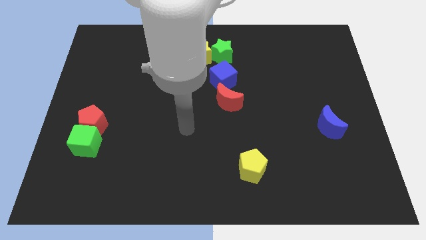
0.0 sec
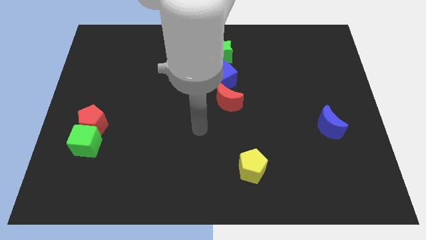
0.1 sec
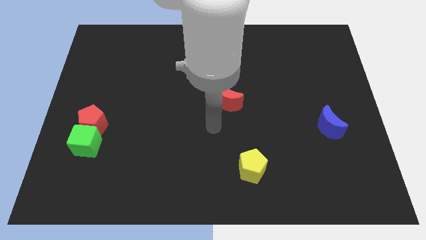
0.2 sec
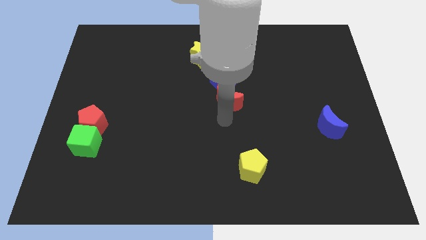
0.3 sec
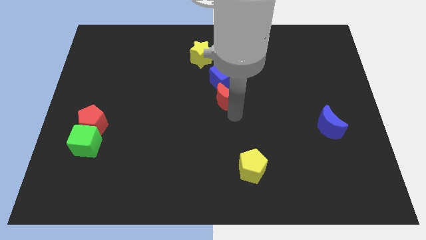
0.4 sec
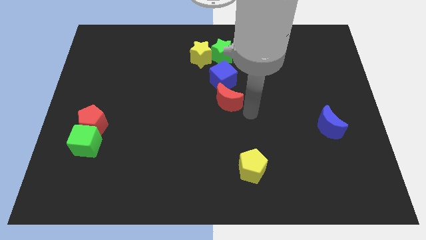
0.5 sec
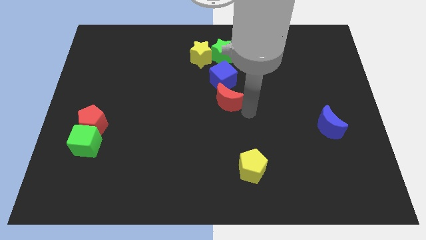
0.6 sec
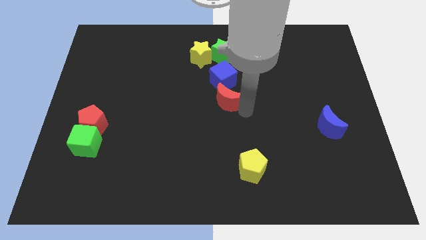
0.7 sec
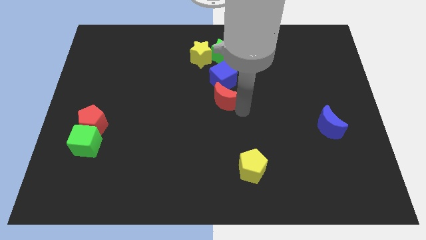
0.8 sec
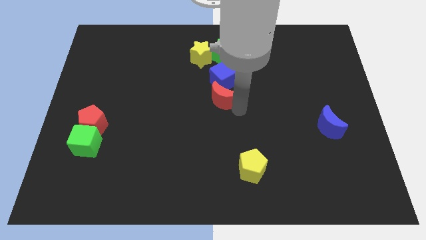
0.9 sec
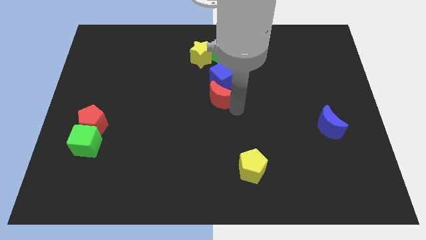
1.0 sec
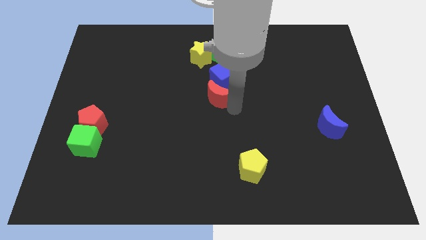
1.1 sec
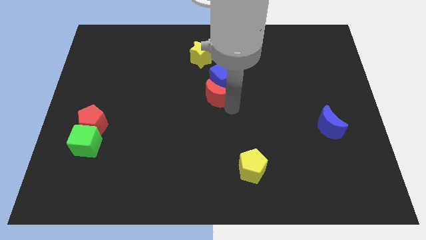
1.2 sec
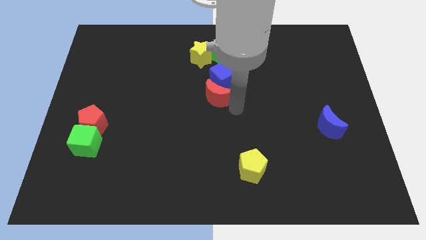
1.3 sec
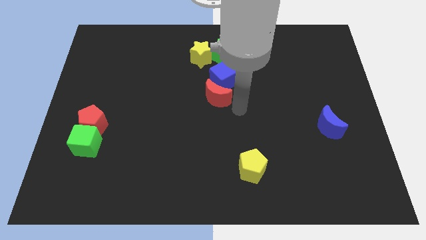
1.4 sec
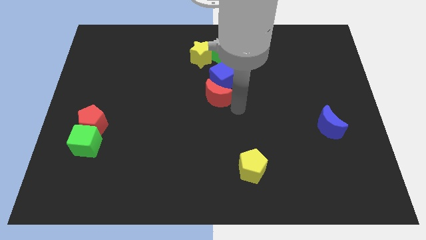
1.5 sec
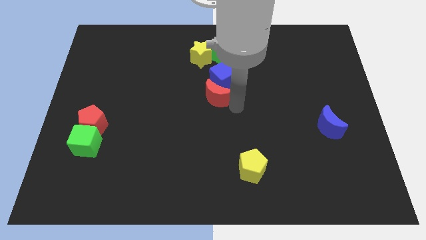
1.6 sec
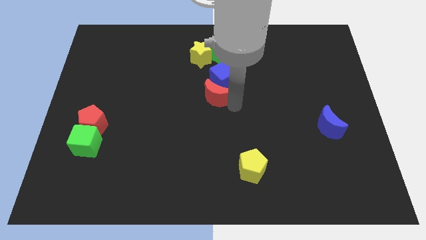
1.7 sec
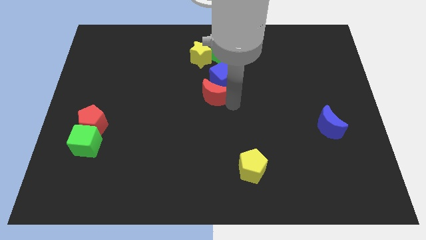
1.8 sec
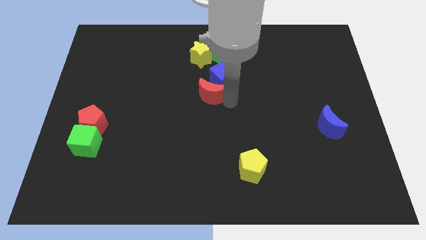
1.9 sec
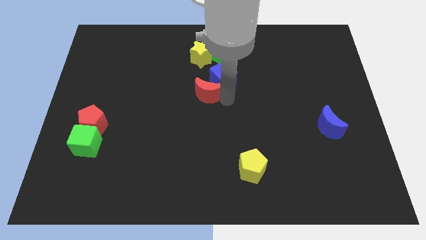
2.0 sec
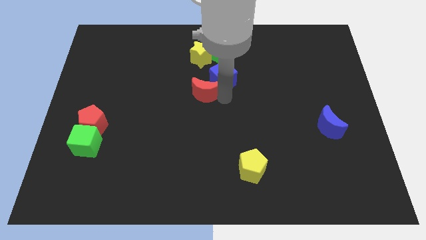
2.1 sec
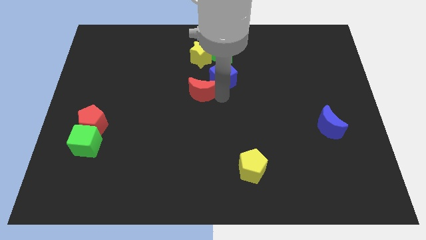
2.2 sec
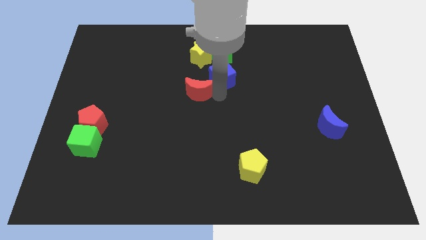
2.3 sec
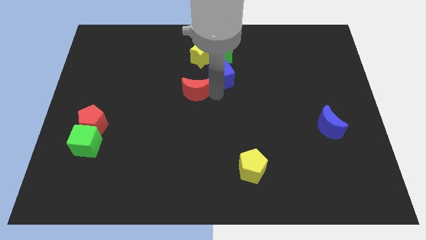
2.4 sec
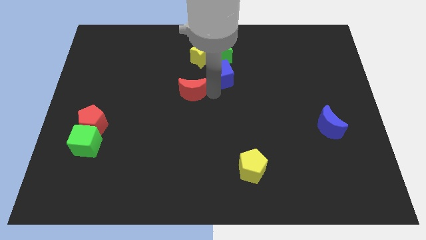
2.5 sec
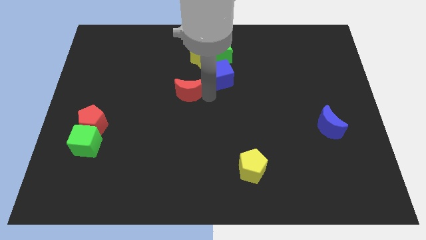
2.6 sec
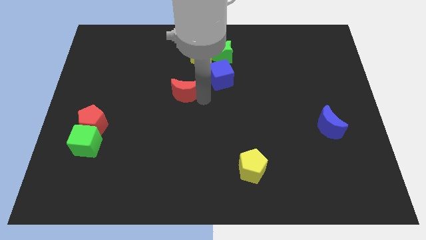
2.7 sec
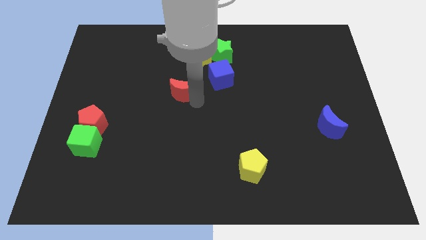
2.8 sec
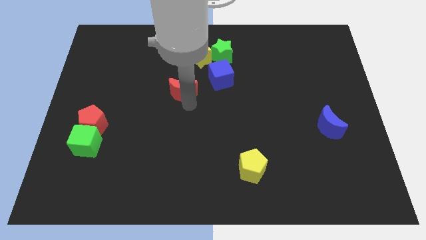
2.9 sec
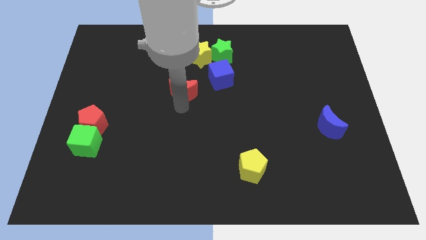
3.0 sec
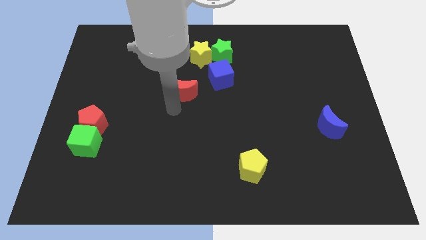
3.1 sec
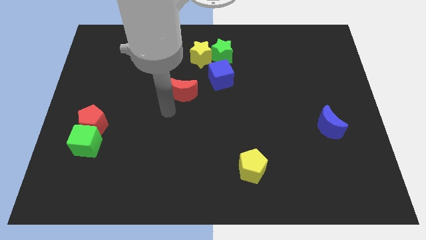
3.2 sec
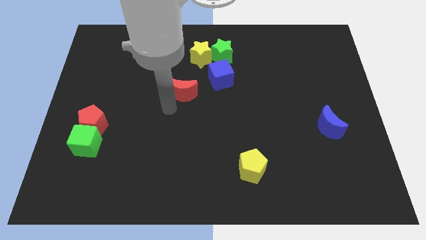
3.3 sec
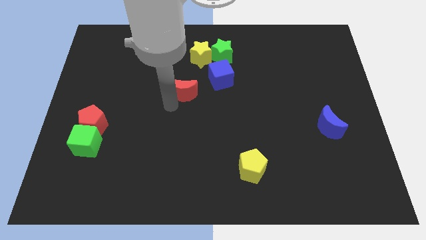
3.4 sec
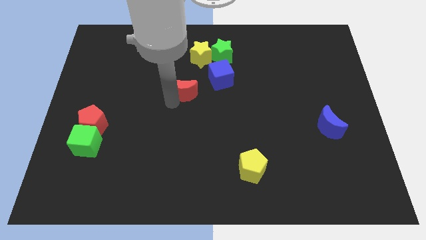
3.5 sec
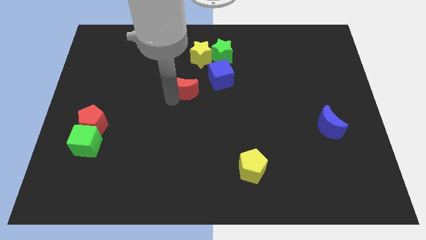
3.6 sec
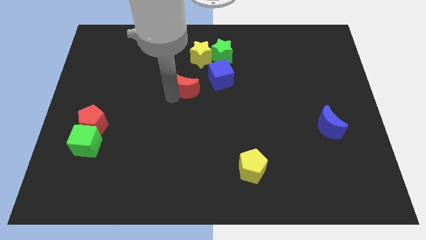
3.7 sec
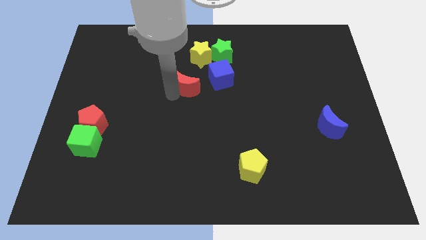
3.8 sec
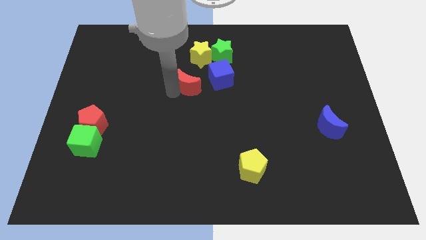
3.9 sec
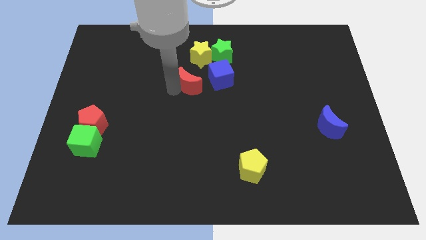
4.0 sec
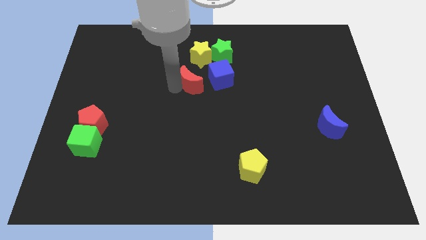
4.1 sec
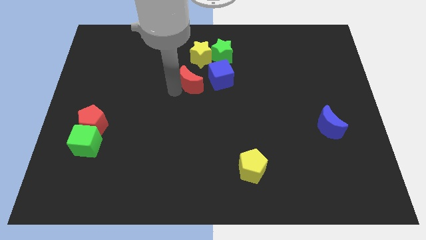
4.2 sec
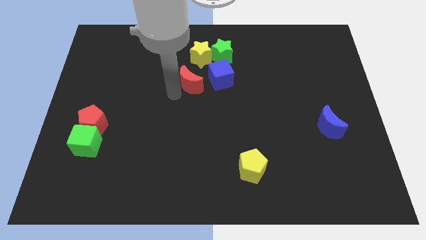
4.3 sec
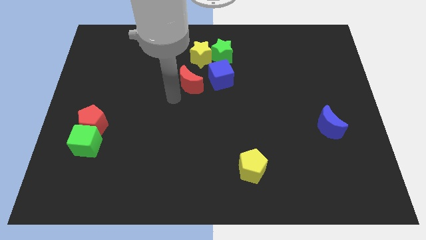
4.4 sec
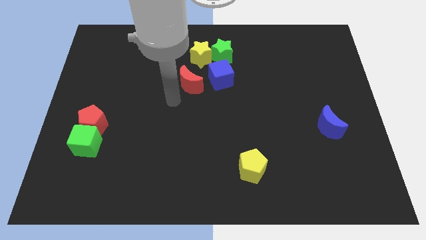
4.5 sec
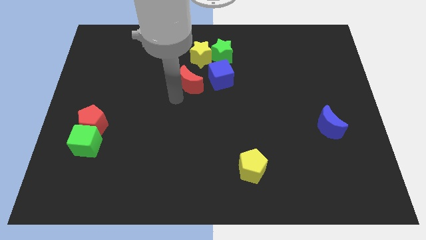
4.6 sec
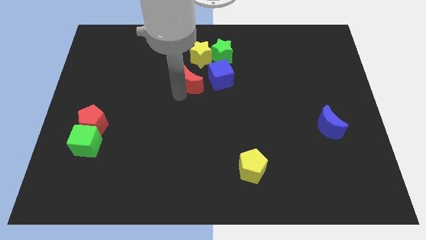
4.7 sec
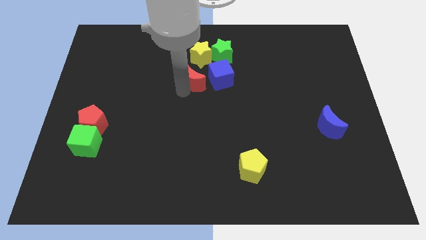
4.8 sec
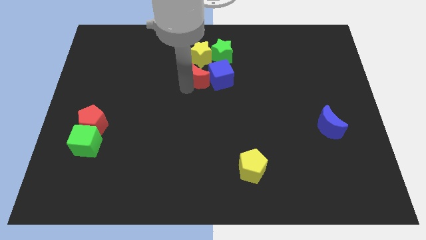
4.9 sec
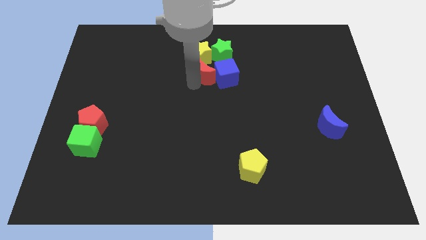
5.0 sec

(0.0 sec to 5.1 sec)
put the red moon close to the yellow star
